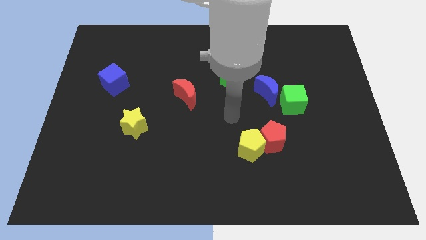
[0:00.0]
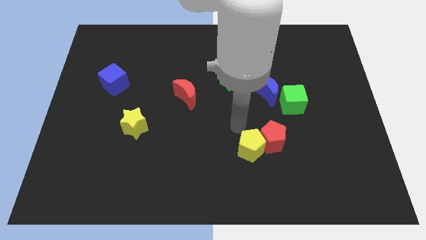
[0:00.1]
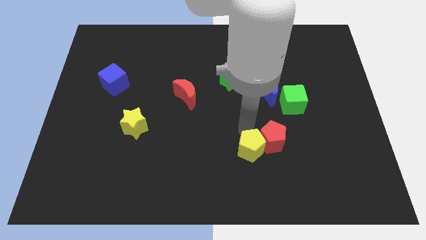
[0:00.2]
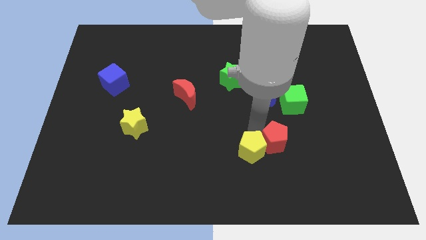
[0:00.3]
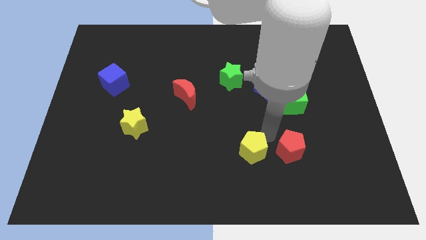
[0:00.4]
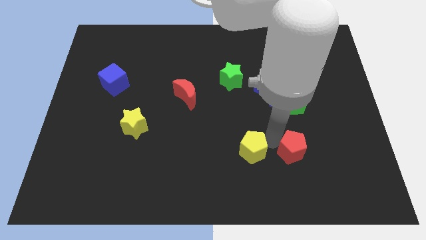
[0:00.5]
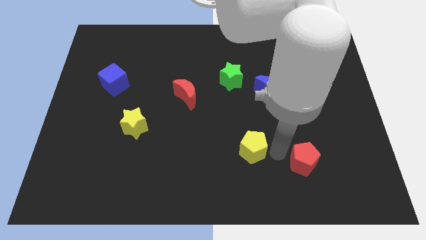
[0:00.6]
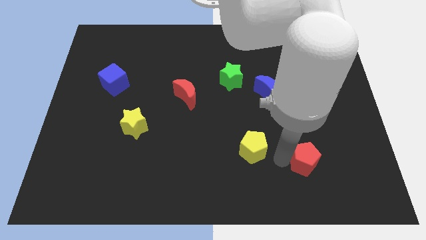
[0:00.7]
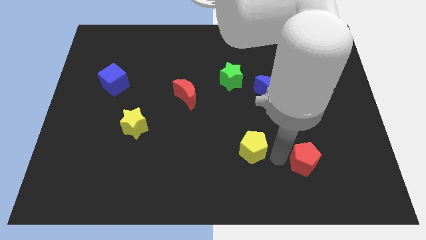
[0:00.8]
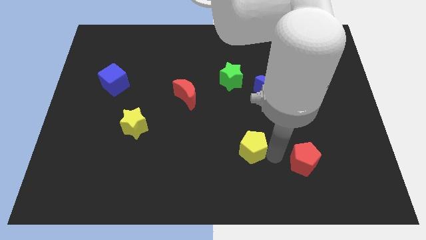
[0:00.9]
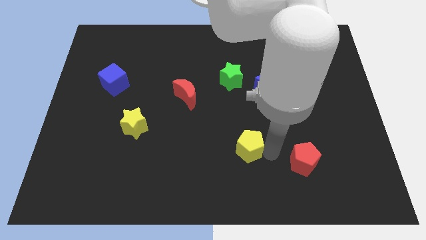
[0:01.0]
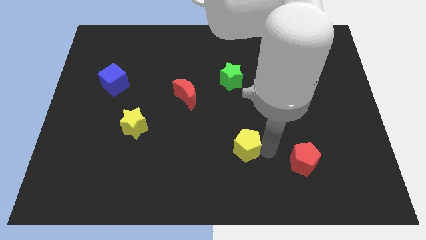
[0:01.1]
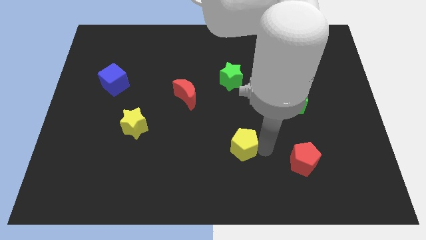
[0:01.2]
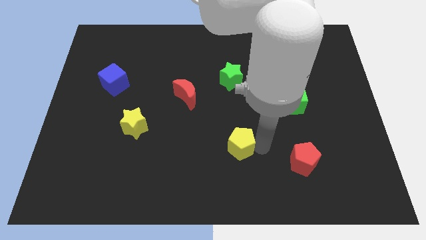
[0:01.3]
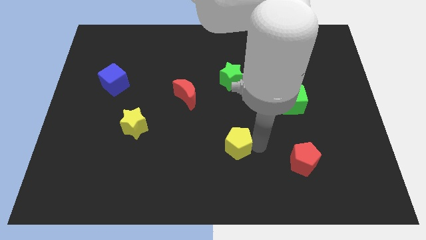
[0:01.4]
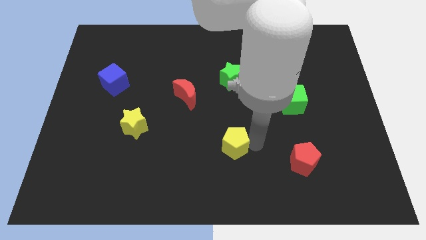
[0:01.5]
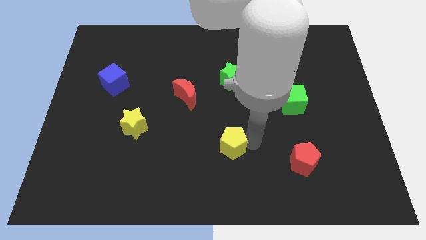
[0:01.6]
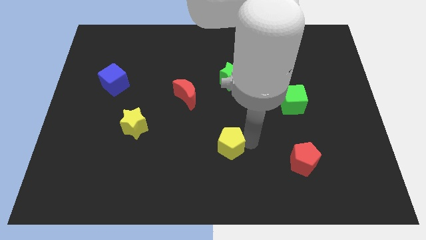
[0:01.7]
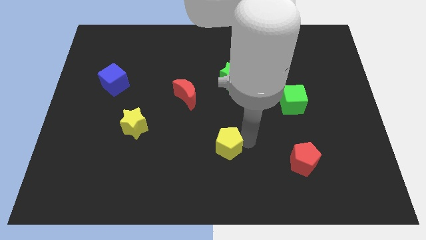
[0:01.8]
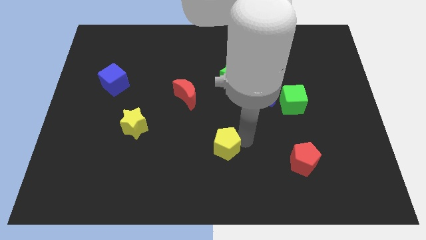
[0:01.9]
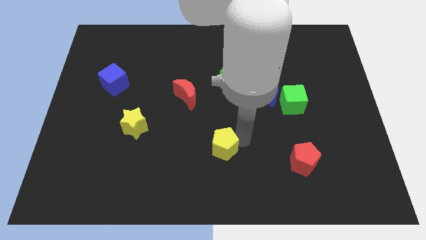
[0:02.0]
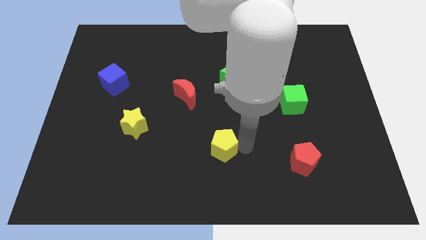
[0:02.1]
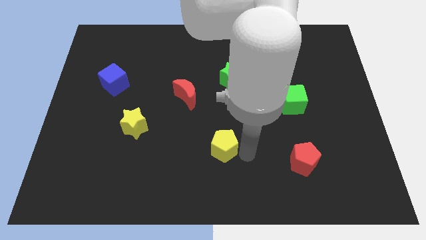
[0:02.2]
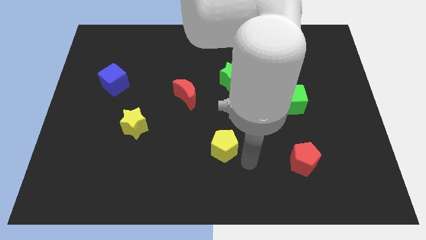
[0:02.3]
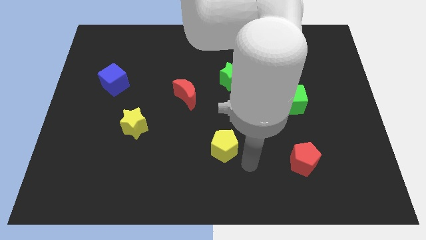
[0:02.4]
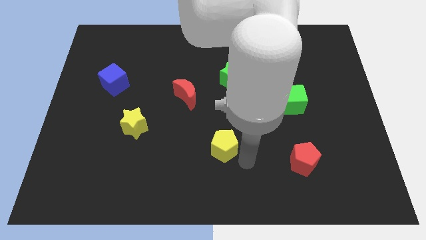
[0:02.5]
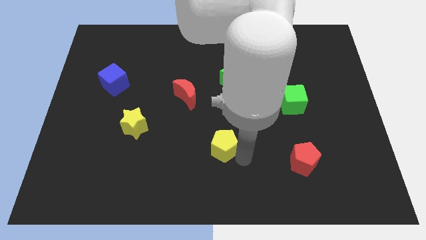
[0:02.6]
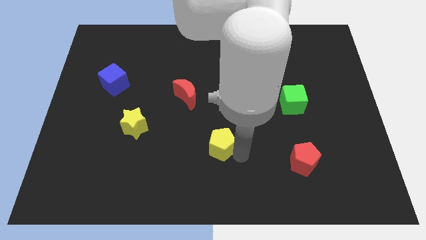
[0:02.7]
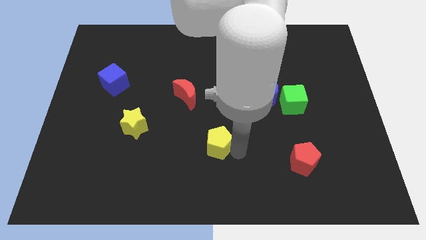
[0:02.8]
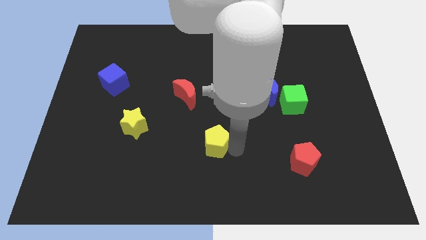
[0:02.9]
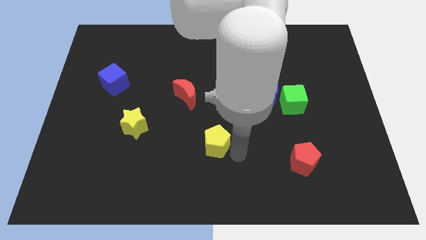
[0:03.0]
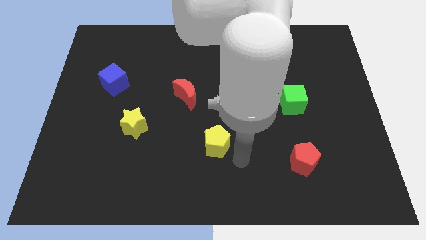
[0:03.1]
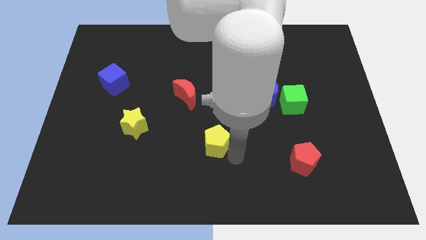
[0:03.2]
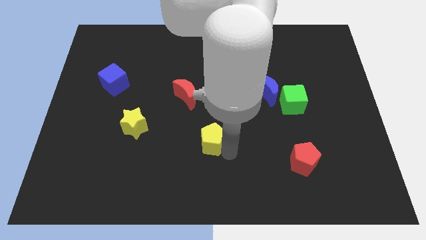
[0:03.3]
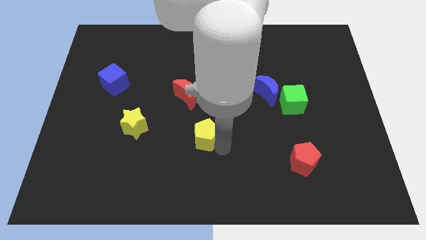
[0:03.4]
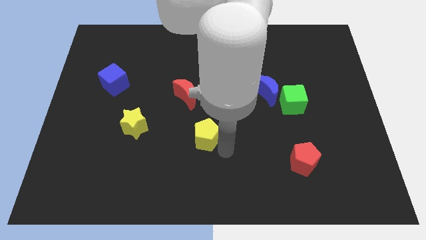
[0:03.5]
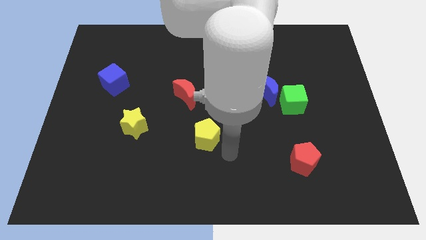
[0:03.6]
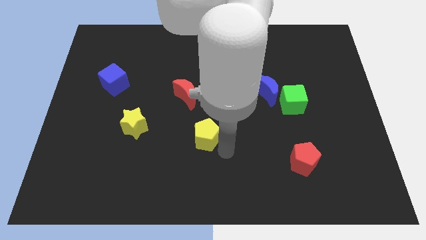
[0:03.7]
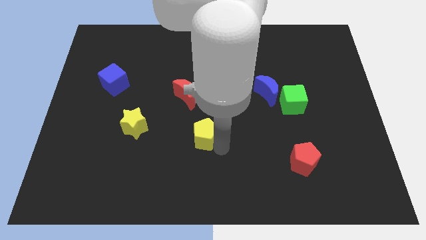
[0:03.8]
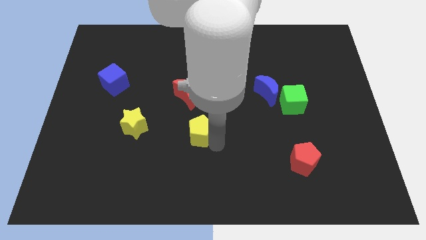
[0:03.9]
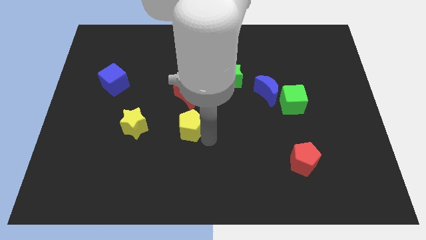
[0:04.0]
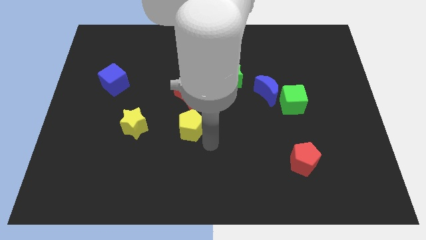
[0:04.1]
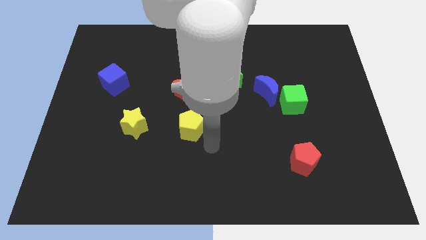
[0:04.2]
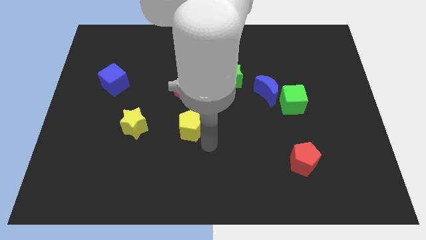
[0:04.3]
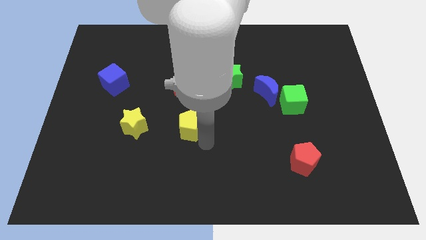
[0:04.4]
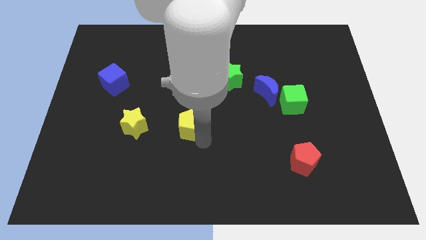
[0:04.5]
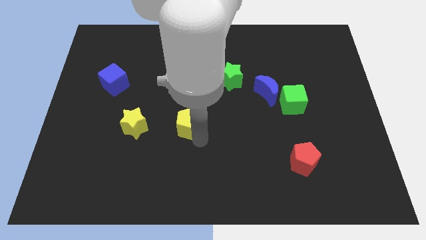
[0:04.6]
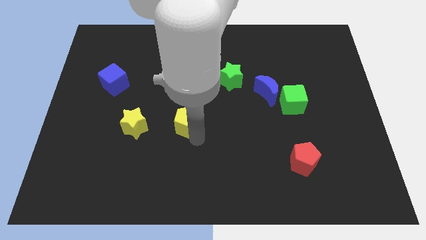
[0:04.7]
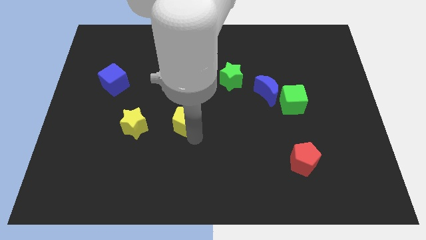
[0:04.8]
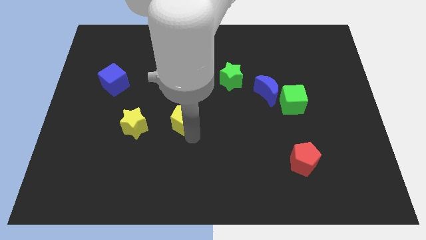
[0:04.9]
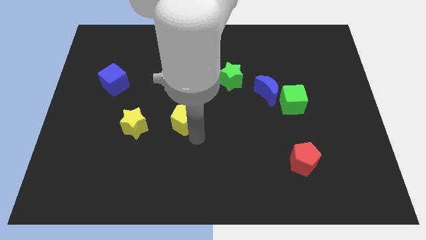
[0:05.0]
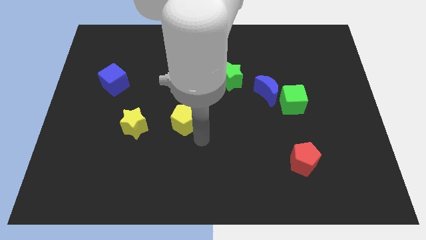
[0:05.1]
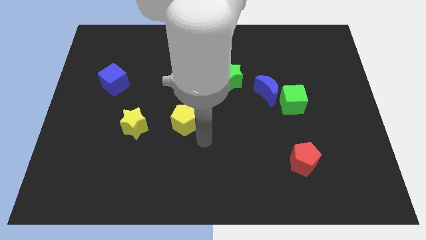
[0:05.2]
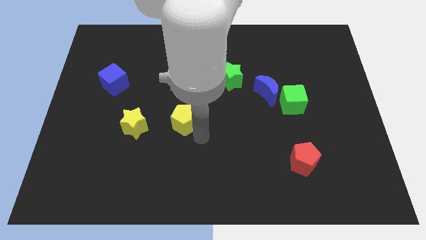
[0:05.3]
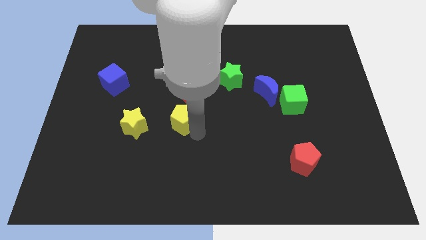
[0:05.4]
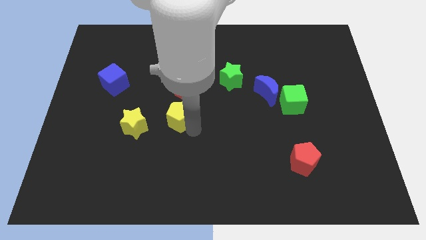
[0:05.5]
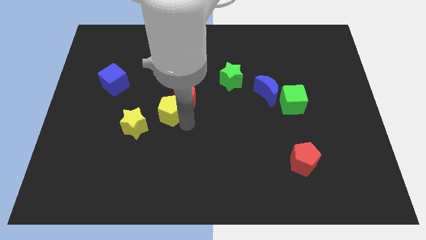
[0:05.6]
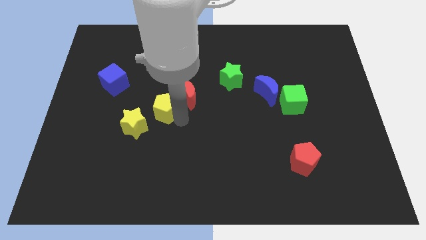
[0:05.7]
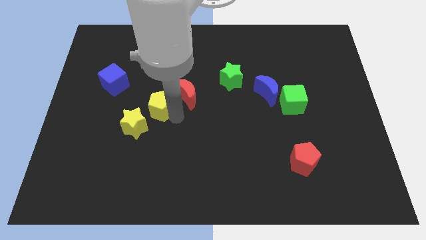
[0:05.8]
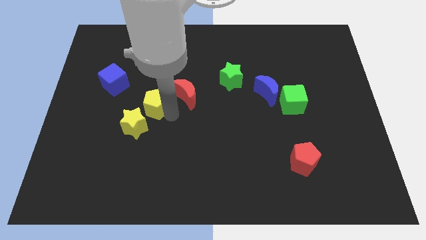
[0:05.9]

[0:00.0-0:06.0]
push the yellow pentagon to the top side of the yellow star

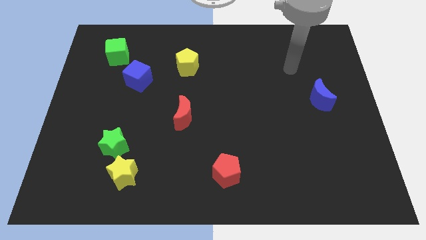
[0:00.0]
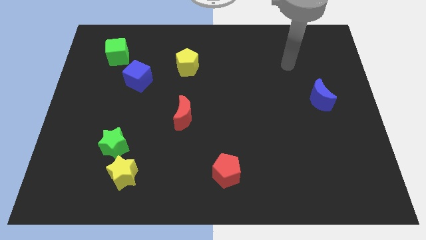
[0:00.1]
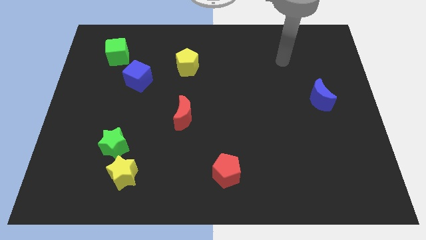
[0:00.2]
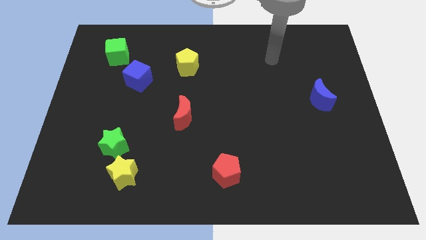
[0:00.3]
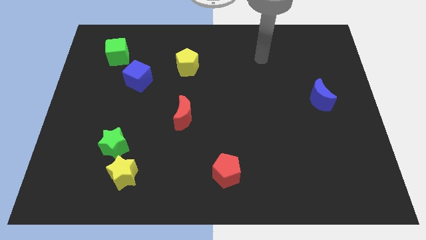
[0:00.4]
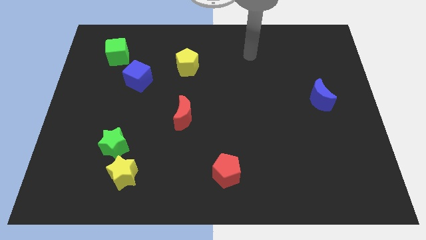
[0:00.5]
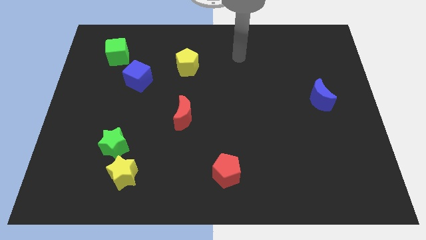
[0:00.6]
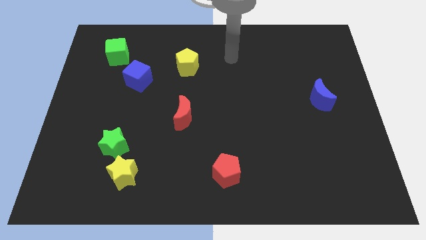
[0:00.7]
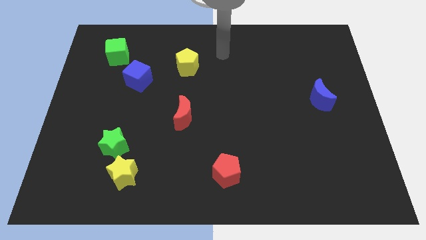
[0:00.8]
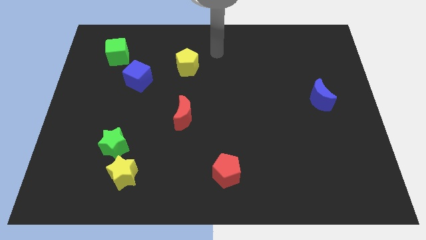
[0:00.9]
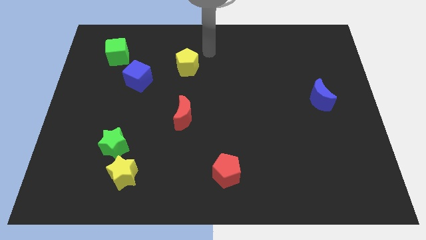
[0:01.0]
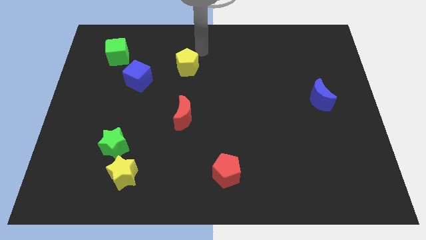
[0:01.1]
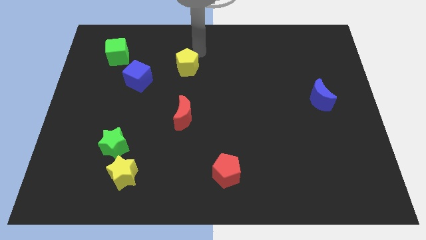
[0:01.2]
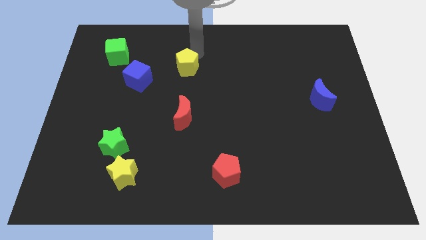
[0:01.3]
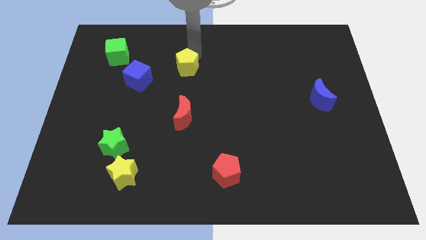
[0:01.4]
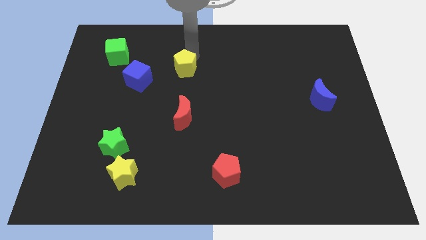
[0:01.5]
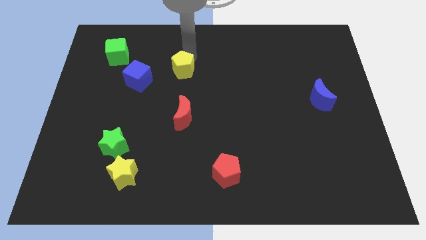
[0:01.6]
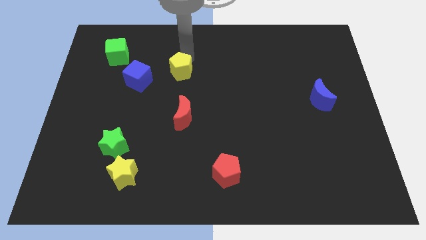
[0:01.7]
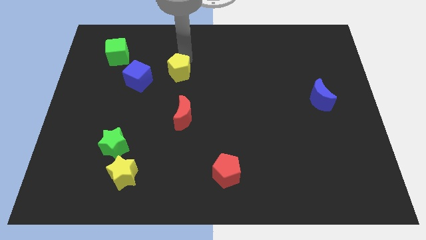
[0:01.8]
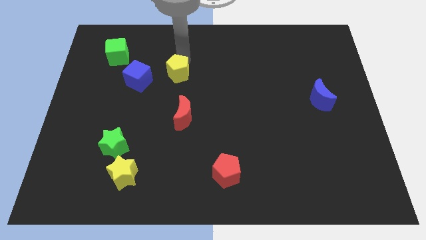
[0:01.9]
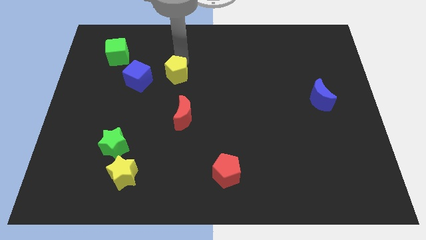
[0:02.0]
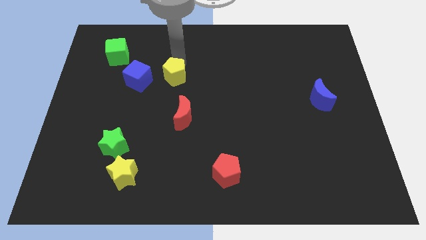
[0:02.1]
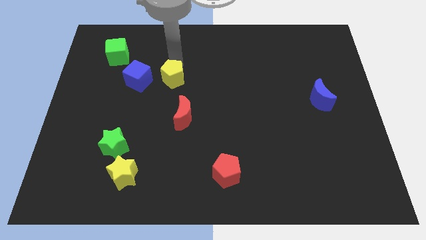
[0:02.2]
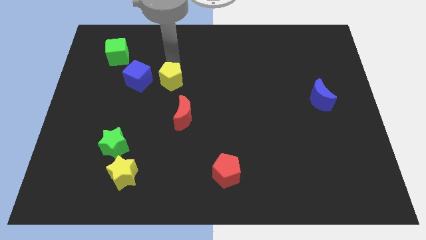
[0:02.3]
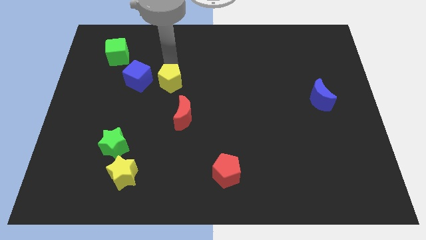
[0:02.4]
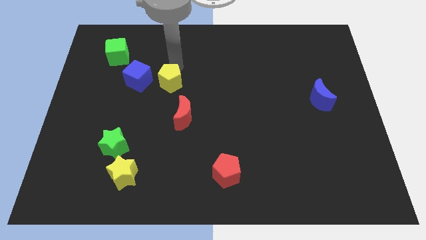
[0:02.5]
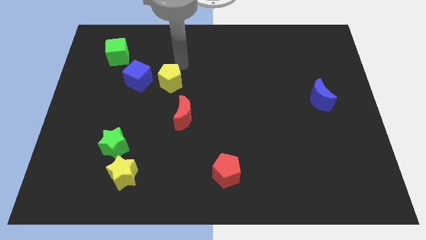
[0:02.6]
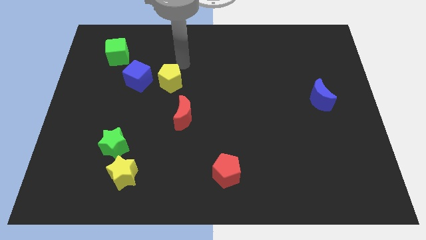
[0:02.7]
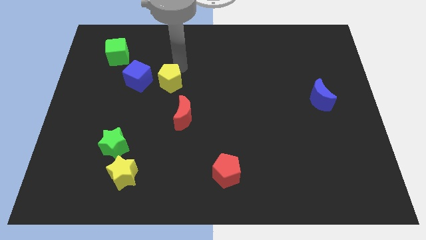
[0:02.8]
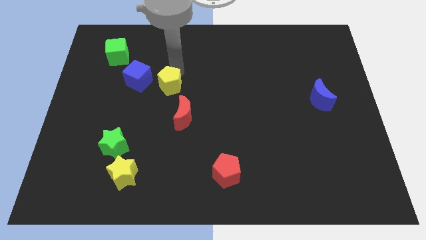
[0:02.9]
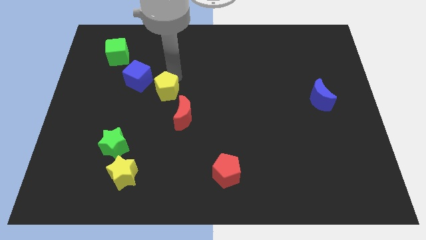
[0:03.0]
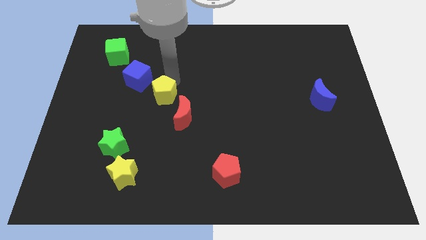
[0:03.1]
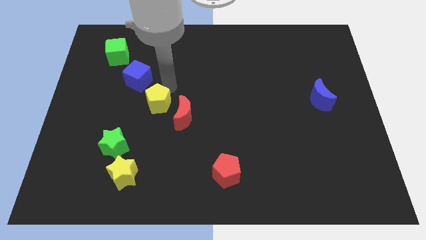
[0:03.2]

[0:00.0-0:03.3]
slide the yellow pentagon to the left of the red moon
